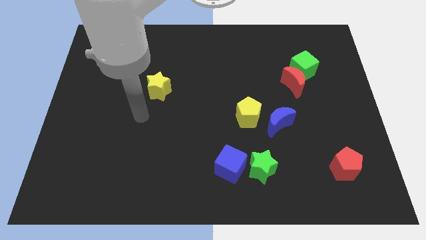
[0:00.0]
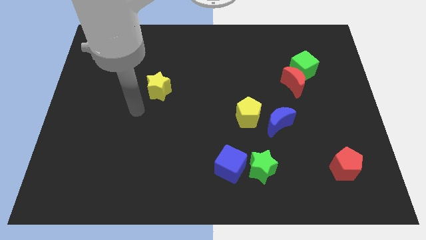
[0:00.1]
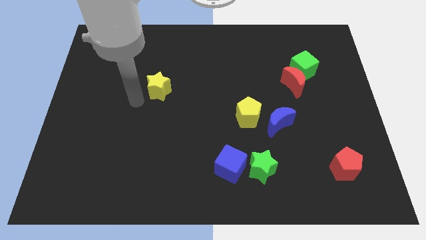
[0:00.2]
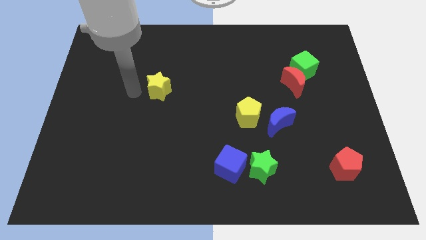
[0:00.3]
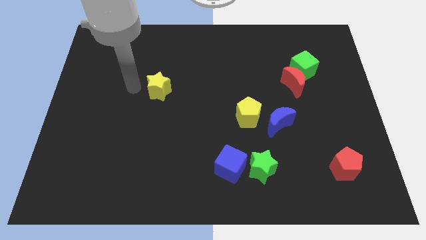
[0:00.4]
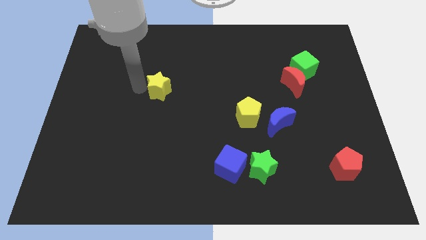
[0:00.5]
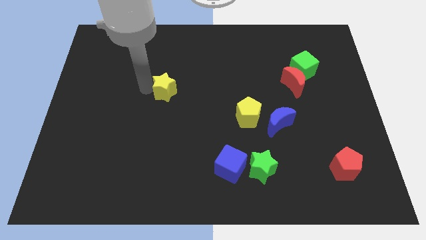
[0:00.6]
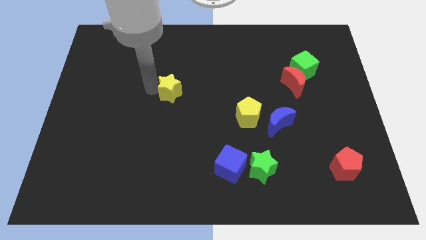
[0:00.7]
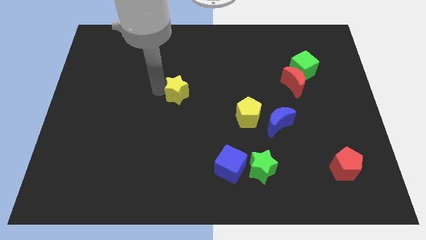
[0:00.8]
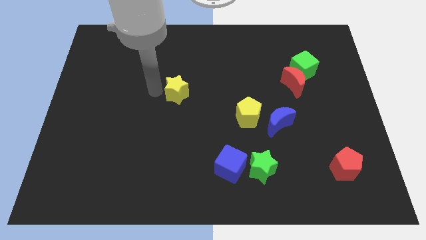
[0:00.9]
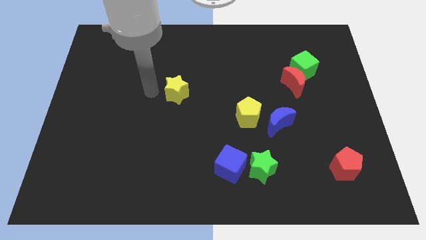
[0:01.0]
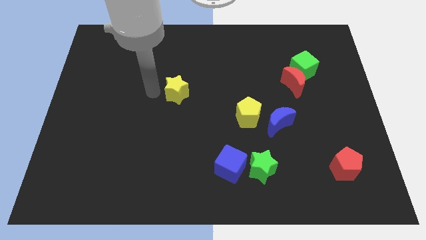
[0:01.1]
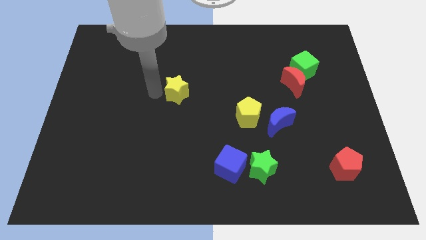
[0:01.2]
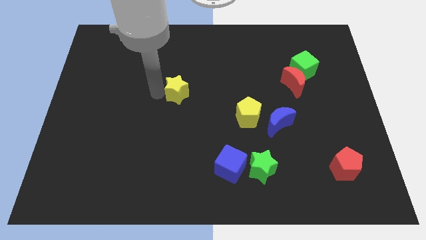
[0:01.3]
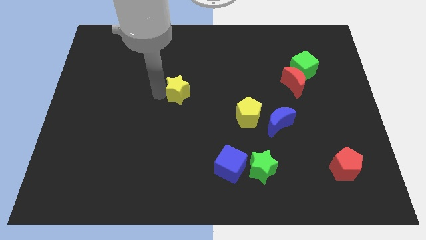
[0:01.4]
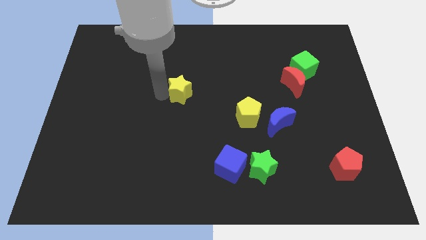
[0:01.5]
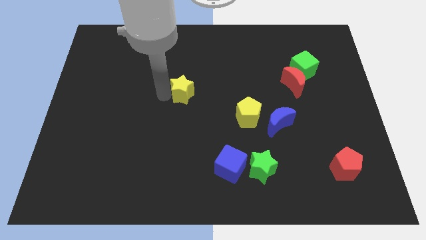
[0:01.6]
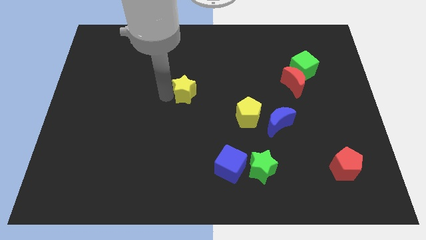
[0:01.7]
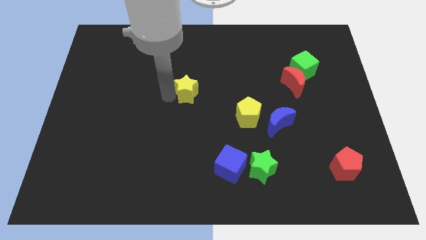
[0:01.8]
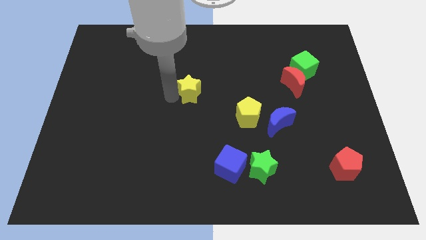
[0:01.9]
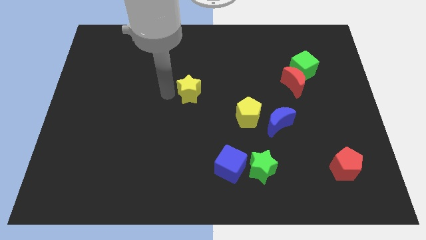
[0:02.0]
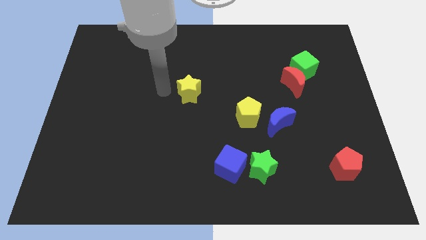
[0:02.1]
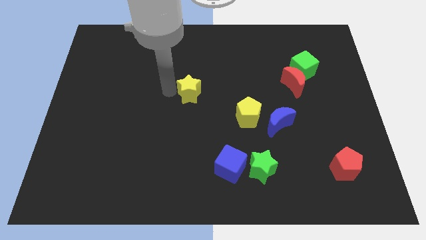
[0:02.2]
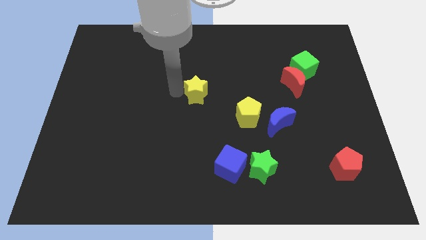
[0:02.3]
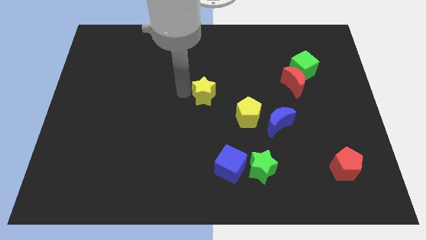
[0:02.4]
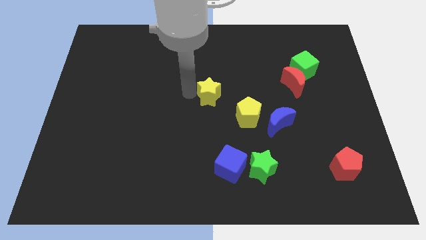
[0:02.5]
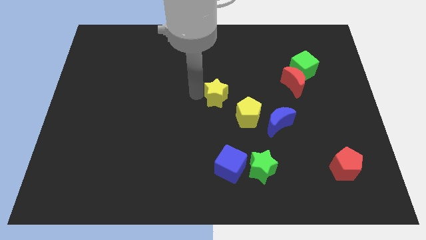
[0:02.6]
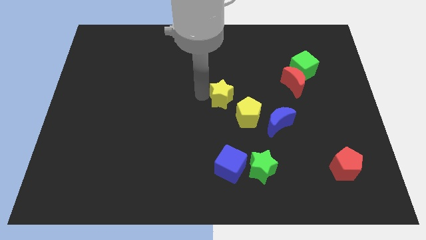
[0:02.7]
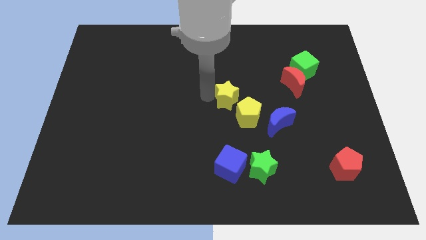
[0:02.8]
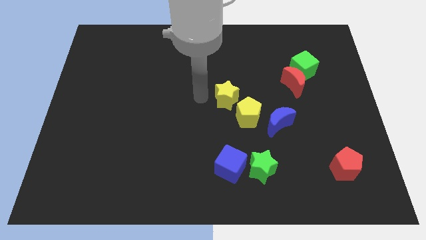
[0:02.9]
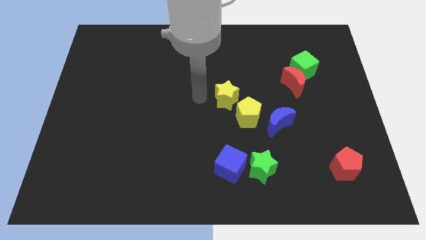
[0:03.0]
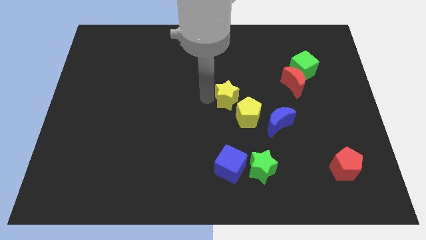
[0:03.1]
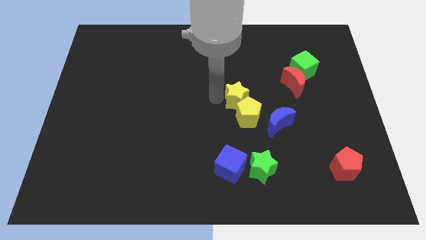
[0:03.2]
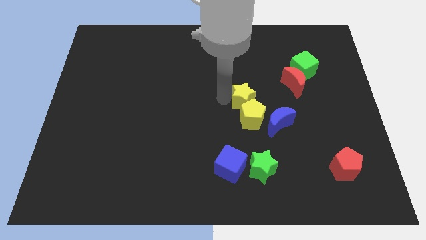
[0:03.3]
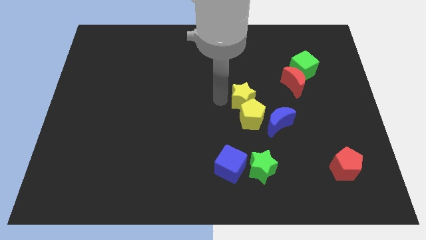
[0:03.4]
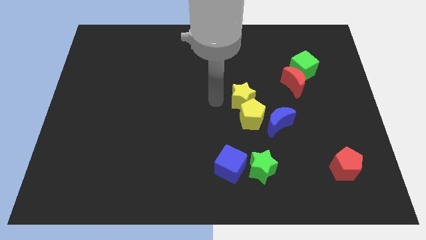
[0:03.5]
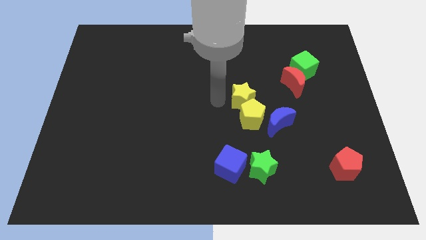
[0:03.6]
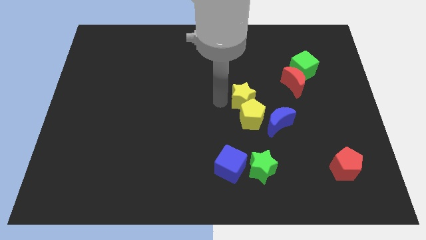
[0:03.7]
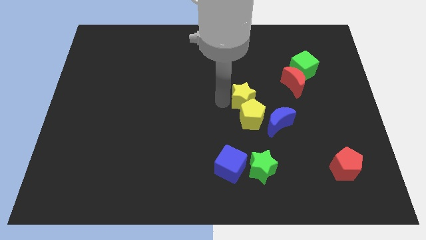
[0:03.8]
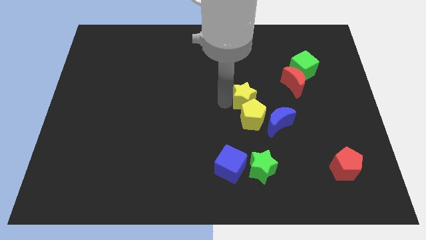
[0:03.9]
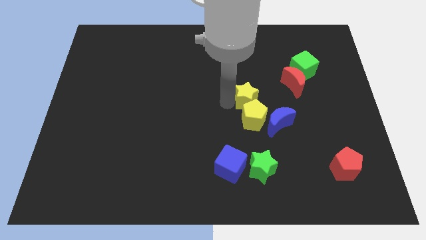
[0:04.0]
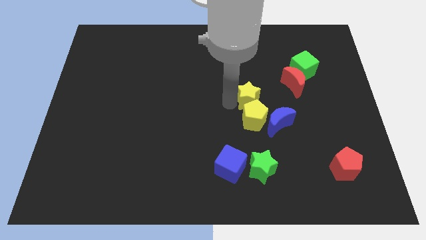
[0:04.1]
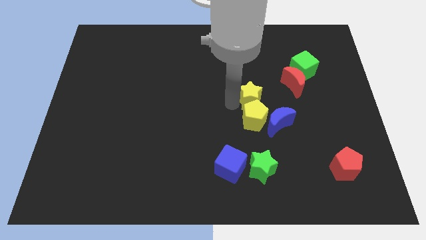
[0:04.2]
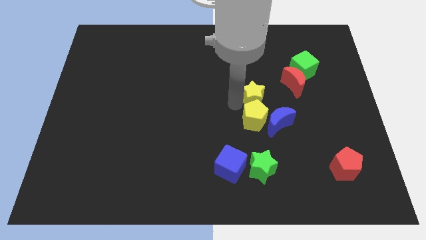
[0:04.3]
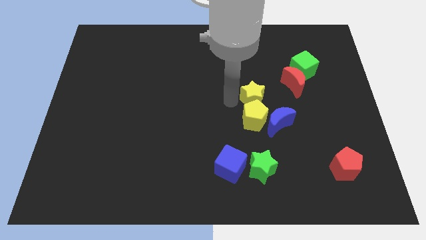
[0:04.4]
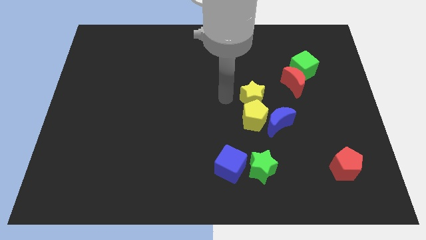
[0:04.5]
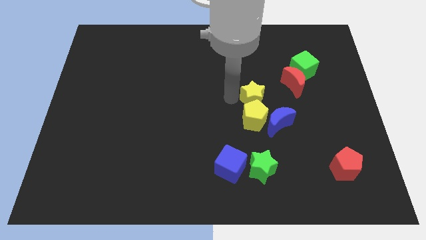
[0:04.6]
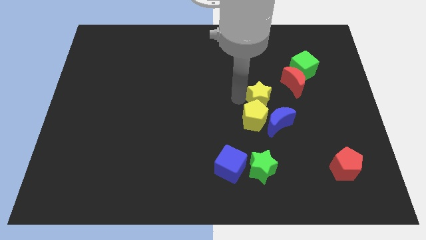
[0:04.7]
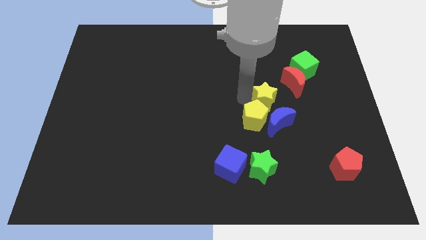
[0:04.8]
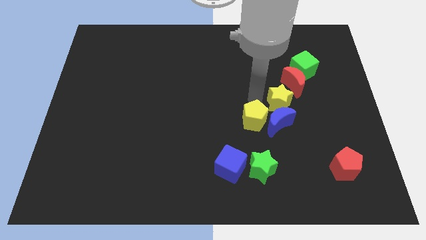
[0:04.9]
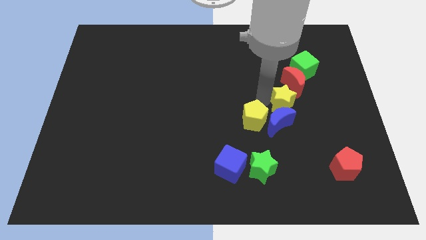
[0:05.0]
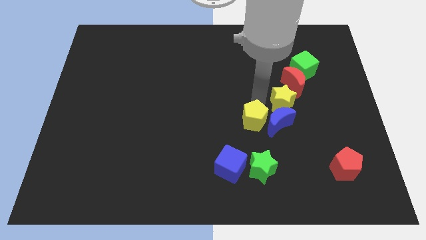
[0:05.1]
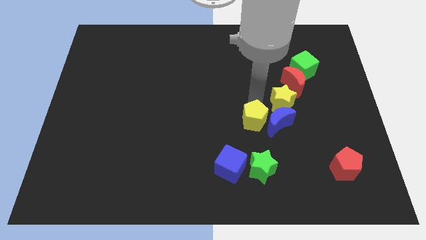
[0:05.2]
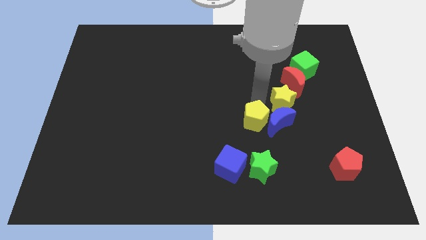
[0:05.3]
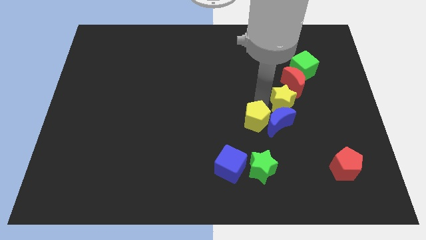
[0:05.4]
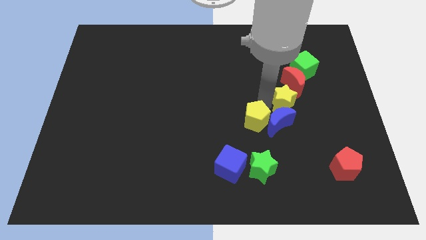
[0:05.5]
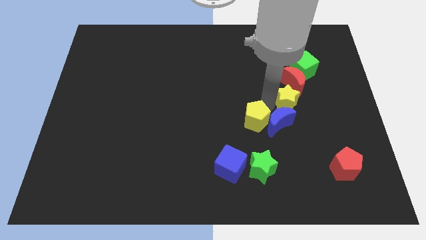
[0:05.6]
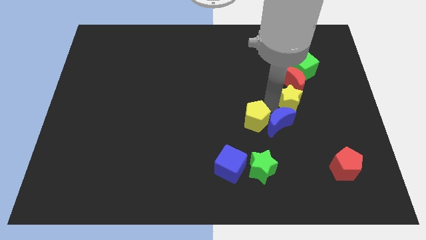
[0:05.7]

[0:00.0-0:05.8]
move the yellow star to the bottom of the green cube

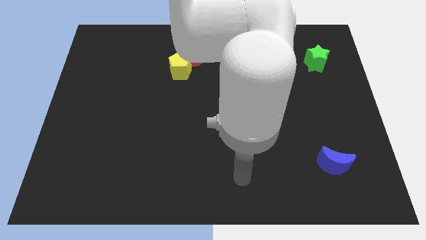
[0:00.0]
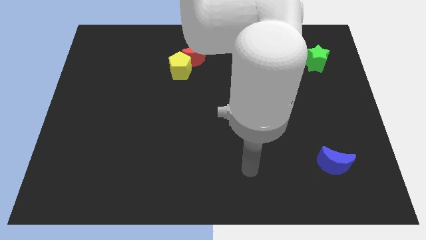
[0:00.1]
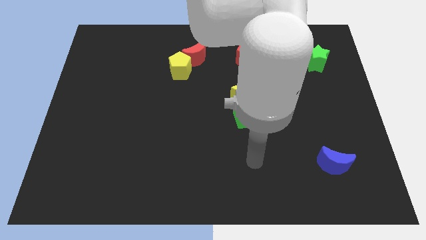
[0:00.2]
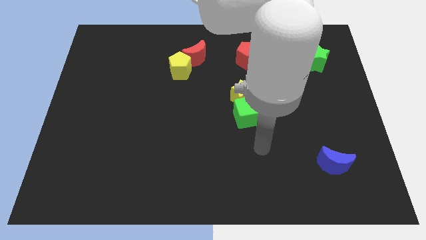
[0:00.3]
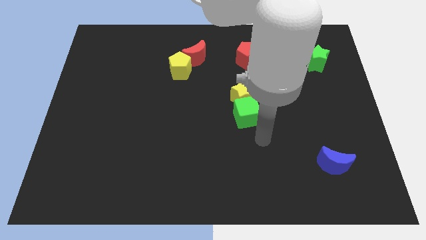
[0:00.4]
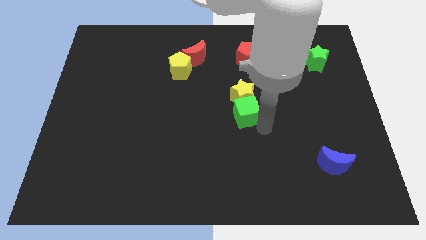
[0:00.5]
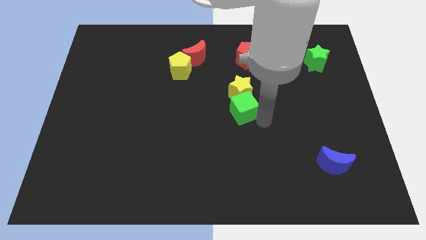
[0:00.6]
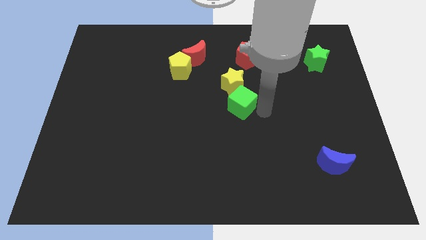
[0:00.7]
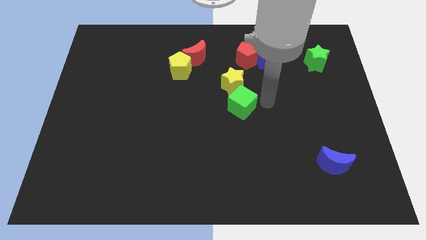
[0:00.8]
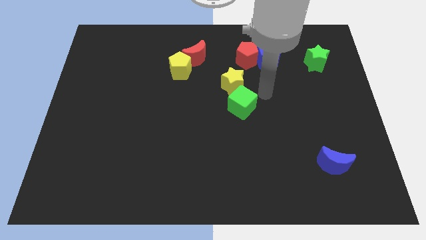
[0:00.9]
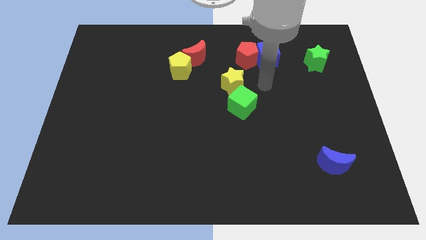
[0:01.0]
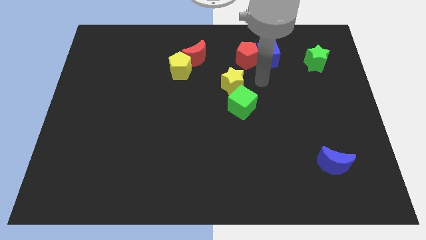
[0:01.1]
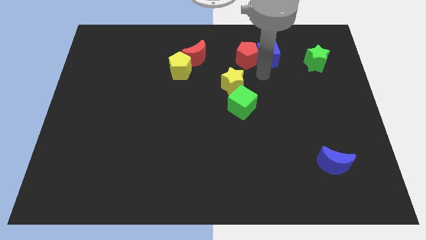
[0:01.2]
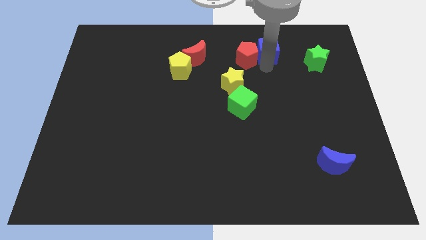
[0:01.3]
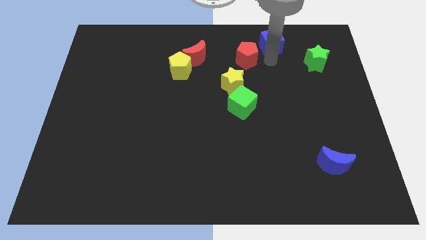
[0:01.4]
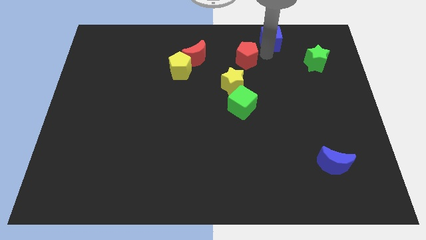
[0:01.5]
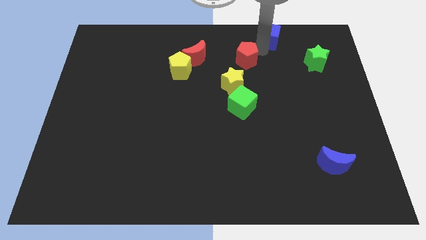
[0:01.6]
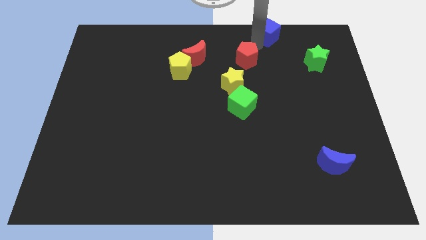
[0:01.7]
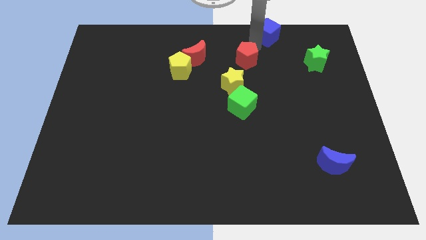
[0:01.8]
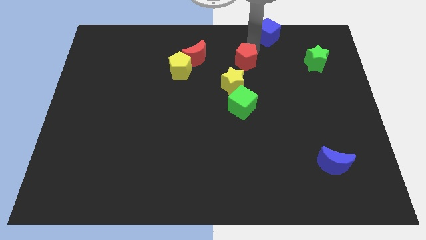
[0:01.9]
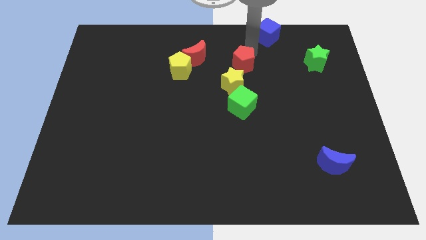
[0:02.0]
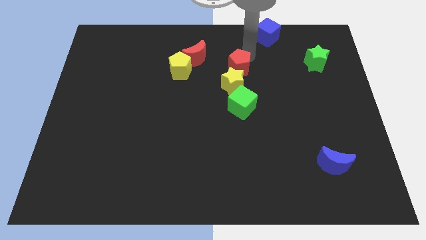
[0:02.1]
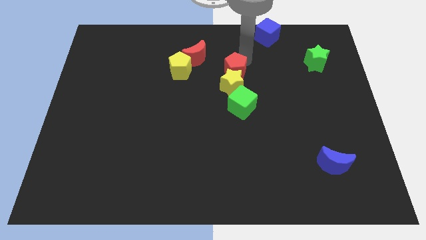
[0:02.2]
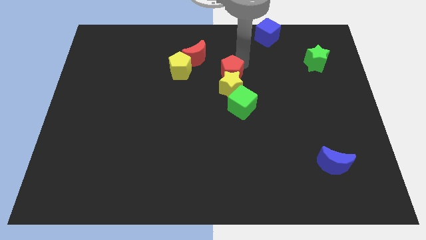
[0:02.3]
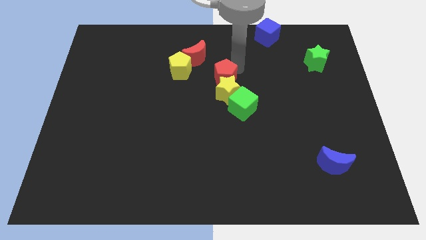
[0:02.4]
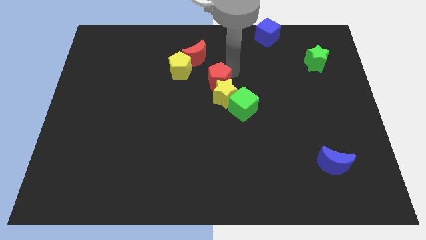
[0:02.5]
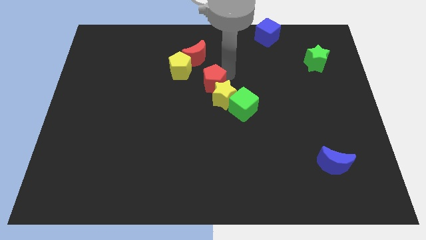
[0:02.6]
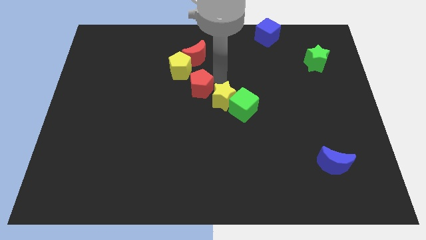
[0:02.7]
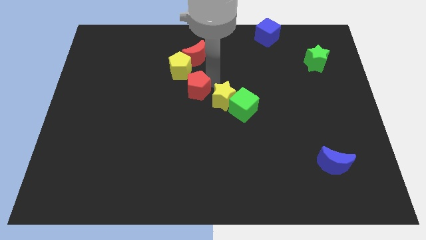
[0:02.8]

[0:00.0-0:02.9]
slide the red pentagon to the bottom of the yellow pentagon
